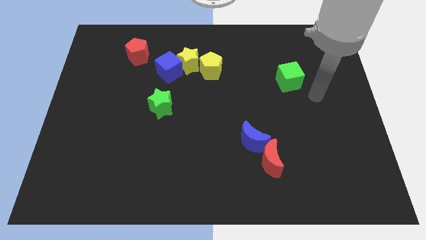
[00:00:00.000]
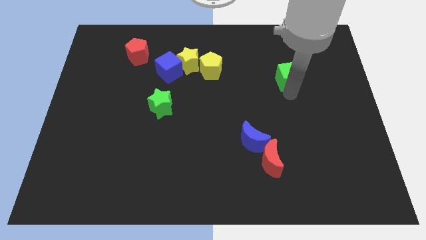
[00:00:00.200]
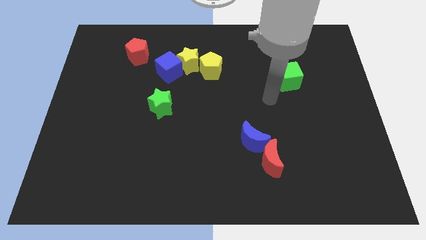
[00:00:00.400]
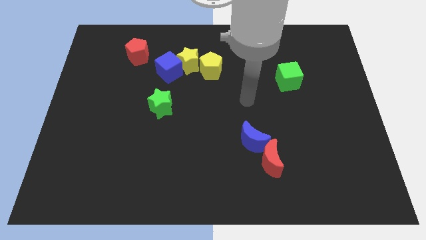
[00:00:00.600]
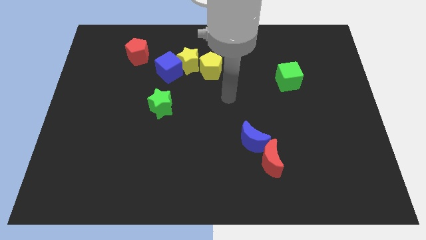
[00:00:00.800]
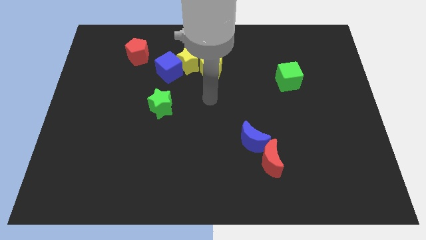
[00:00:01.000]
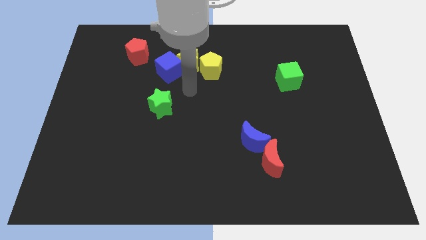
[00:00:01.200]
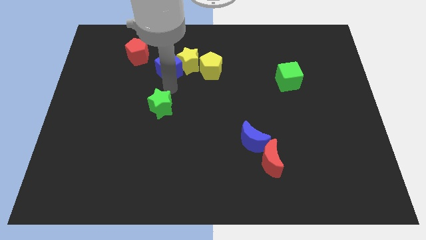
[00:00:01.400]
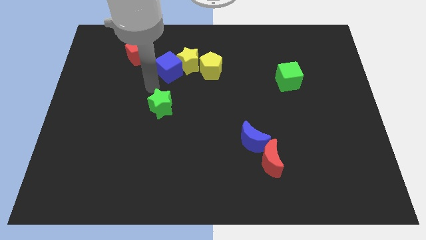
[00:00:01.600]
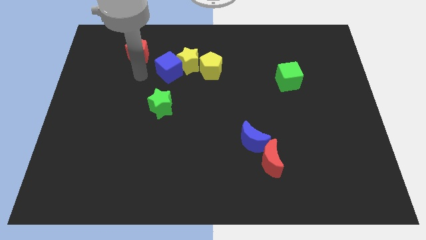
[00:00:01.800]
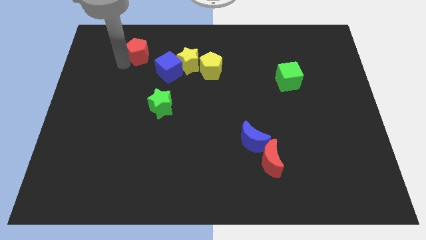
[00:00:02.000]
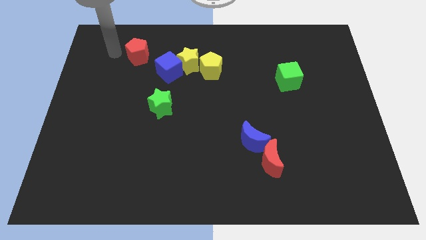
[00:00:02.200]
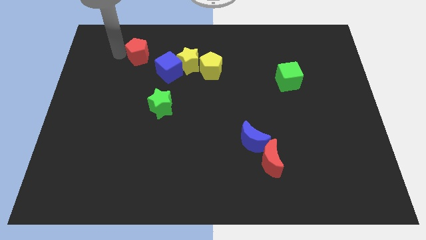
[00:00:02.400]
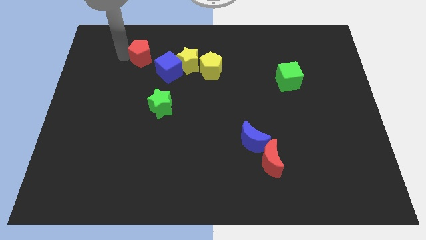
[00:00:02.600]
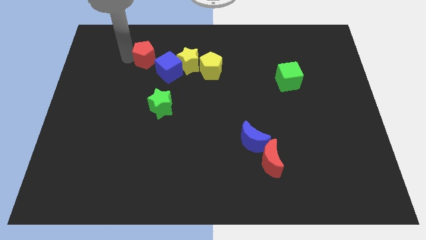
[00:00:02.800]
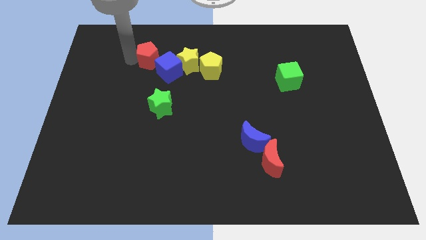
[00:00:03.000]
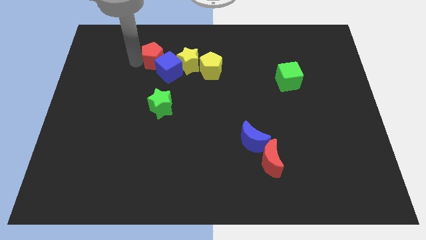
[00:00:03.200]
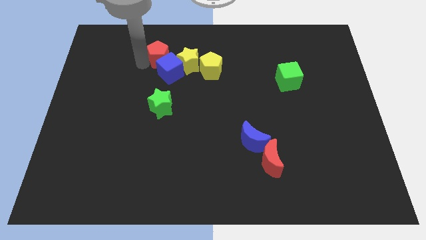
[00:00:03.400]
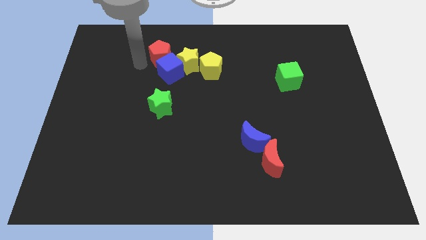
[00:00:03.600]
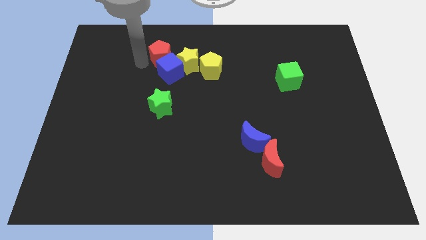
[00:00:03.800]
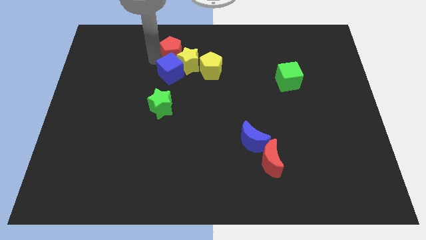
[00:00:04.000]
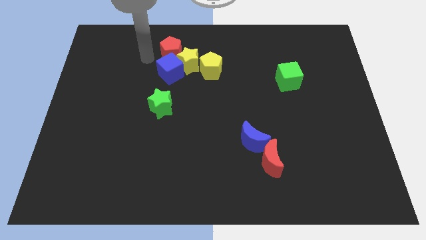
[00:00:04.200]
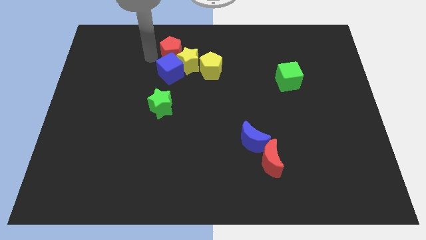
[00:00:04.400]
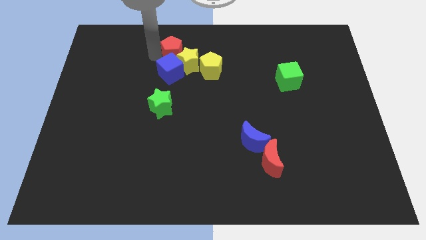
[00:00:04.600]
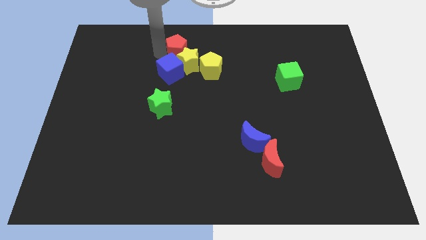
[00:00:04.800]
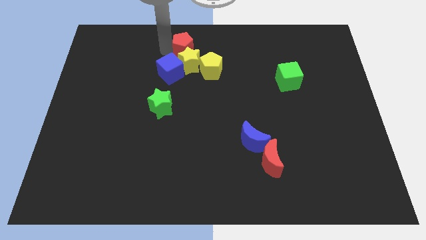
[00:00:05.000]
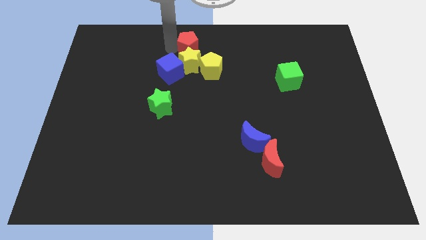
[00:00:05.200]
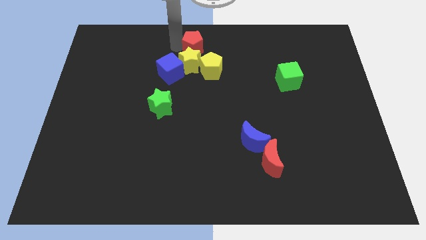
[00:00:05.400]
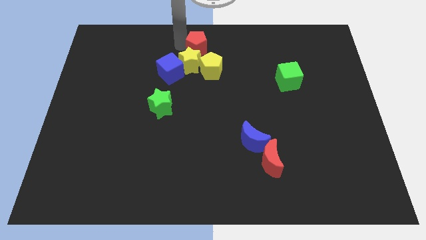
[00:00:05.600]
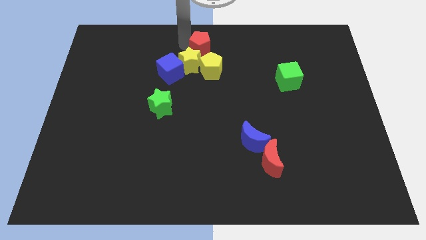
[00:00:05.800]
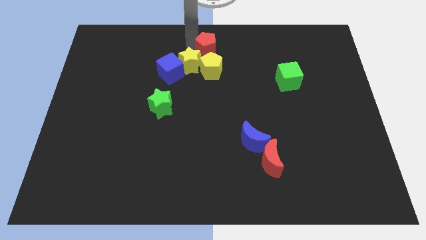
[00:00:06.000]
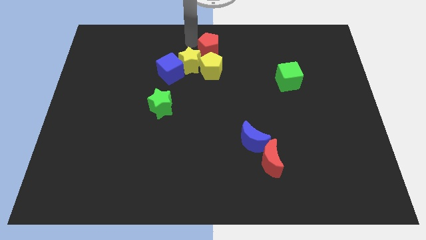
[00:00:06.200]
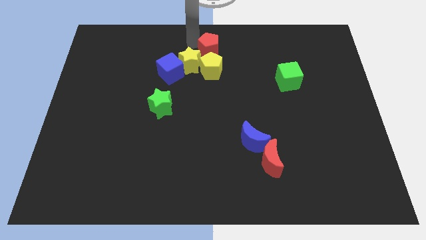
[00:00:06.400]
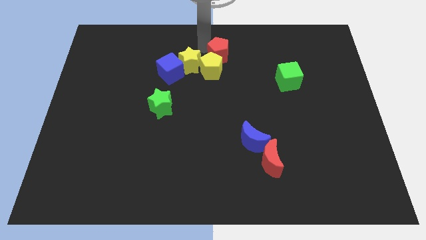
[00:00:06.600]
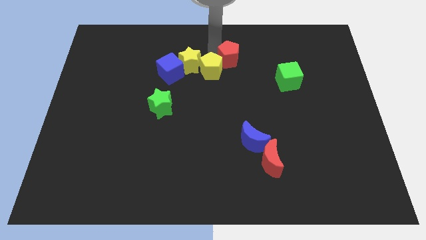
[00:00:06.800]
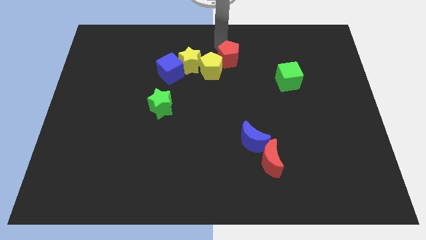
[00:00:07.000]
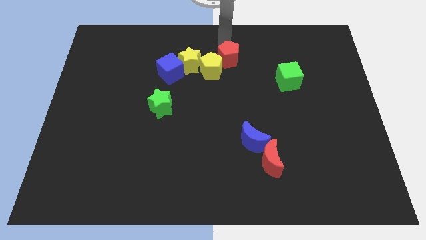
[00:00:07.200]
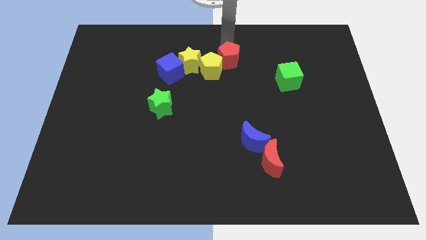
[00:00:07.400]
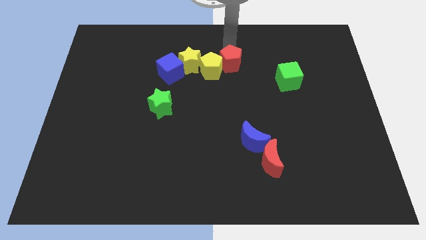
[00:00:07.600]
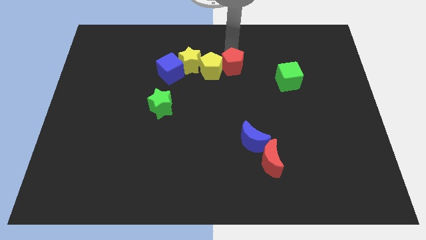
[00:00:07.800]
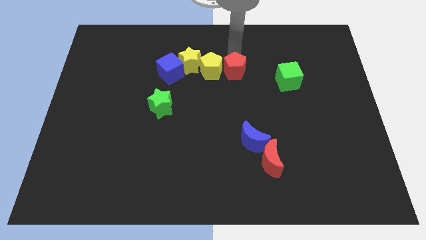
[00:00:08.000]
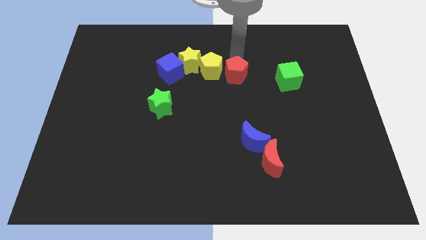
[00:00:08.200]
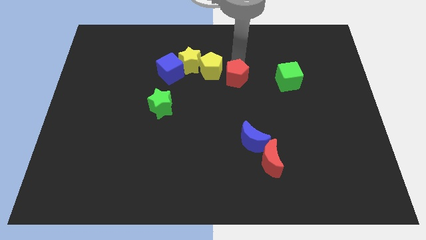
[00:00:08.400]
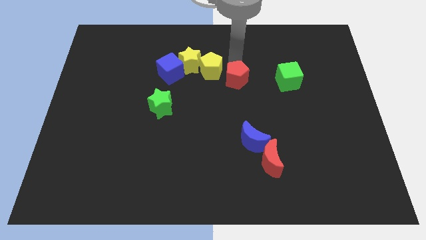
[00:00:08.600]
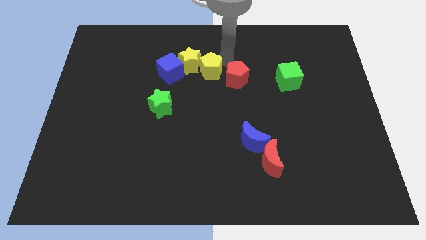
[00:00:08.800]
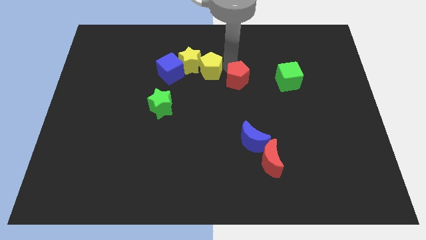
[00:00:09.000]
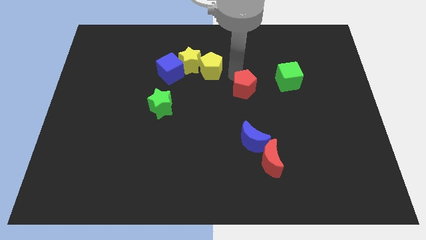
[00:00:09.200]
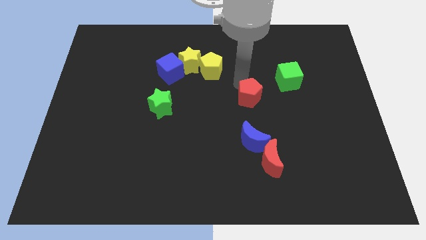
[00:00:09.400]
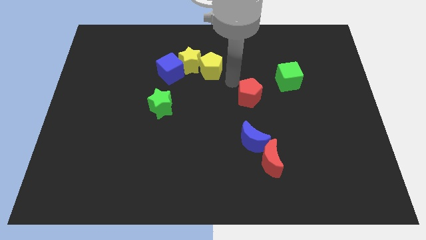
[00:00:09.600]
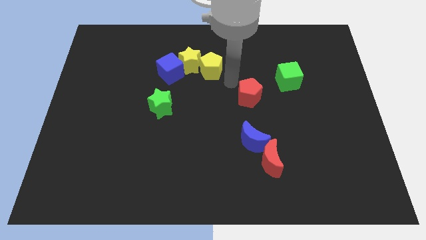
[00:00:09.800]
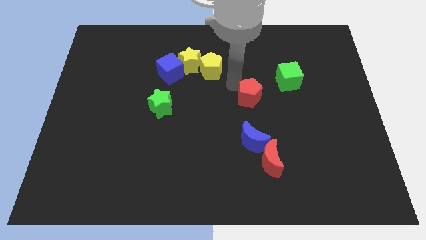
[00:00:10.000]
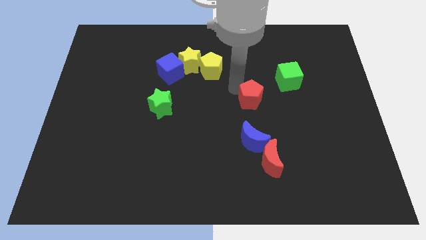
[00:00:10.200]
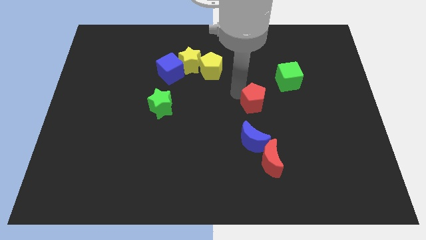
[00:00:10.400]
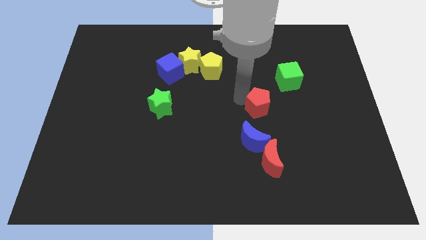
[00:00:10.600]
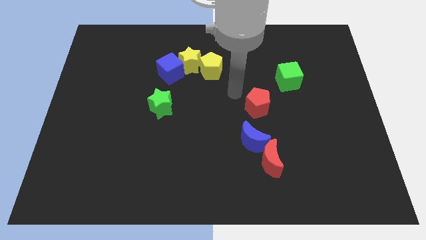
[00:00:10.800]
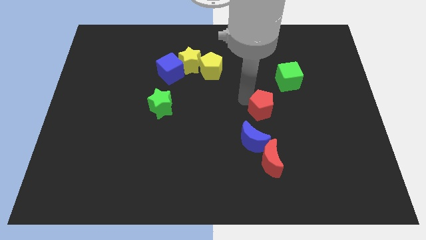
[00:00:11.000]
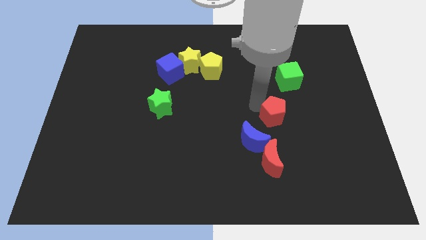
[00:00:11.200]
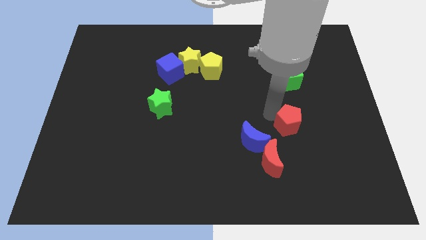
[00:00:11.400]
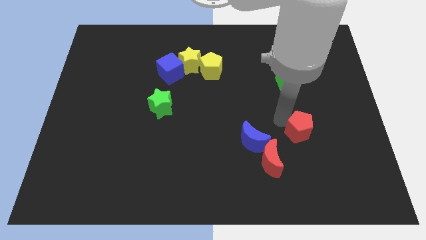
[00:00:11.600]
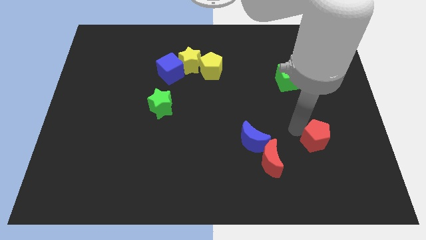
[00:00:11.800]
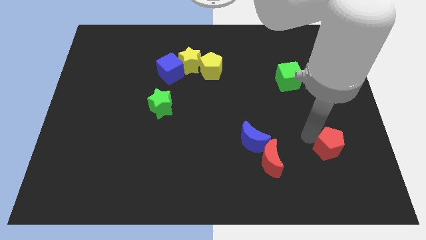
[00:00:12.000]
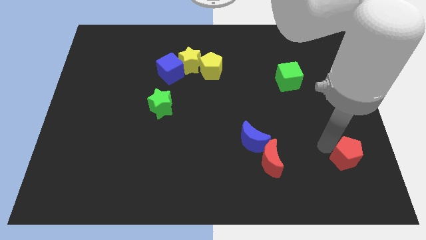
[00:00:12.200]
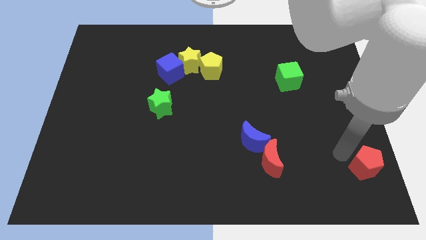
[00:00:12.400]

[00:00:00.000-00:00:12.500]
slide the red pentagon to the bottom right of the board
